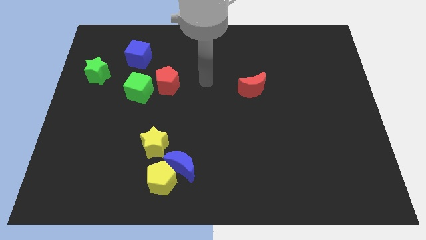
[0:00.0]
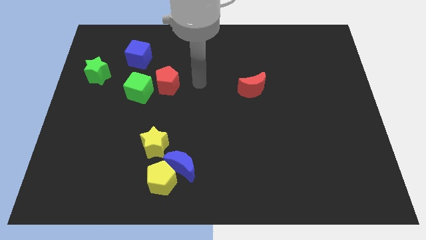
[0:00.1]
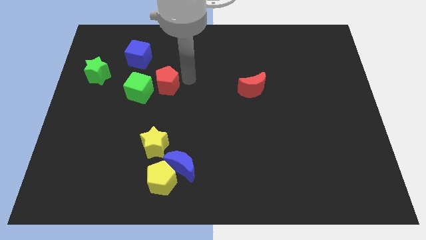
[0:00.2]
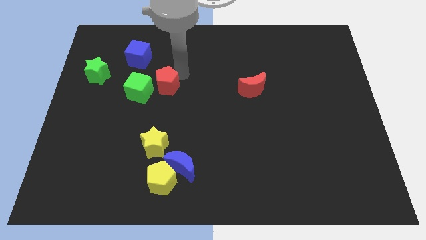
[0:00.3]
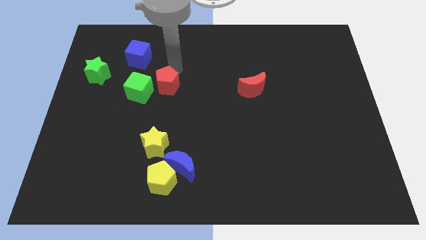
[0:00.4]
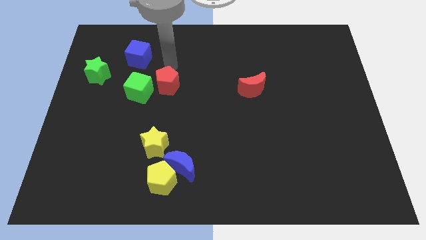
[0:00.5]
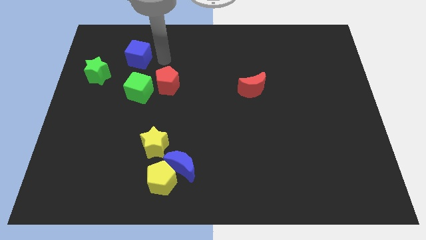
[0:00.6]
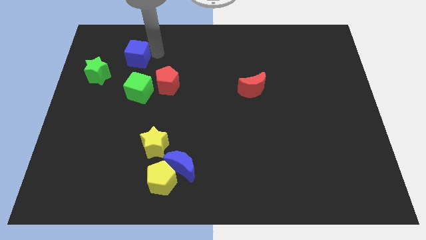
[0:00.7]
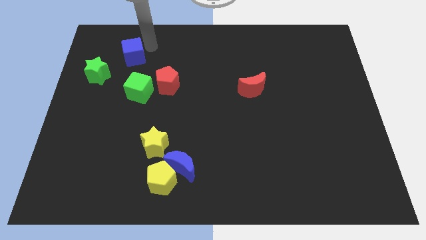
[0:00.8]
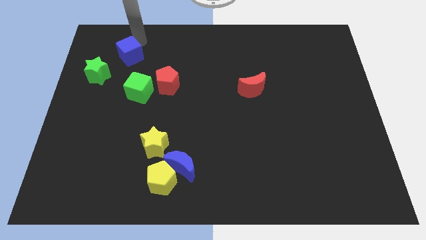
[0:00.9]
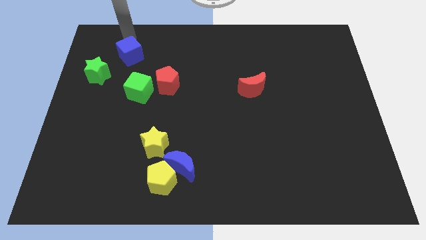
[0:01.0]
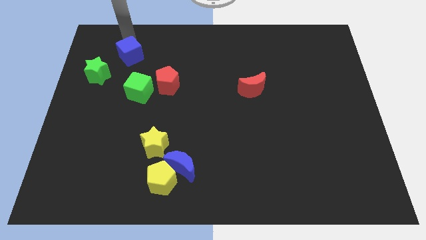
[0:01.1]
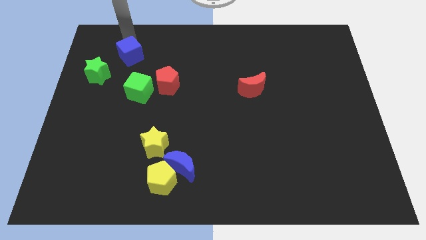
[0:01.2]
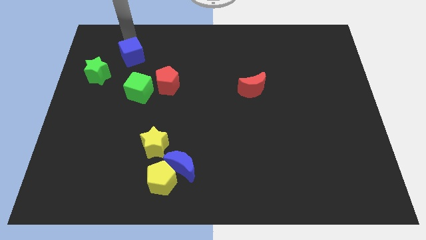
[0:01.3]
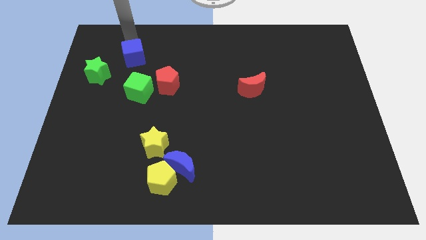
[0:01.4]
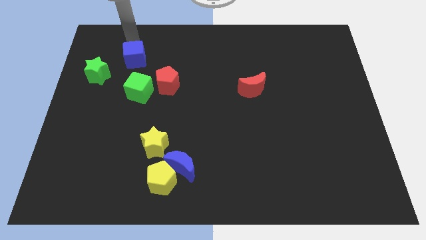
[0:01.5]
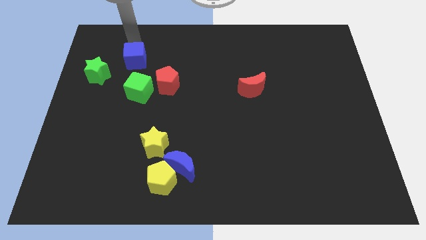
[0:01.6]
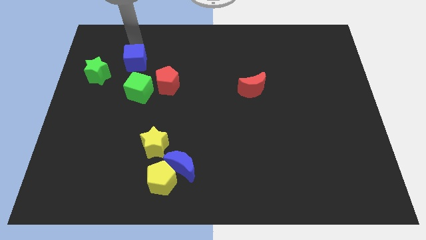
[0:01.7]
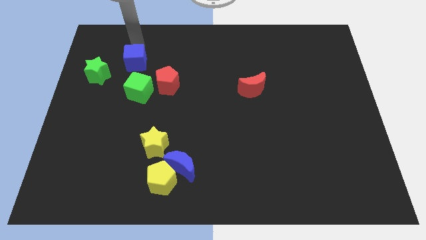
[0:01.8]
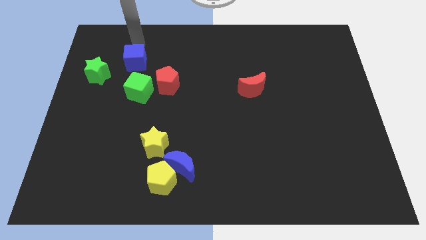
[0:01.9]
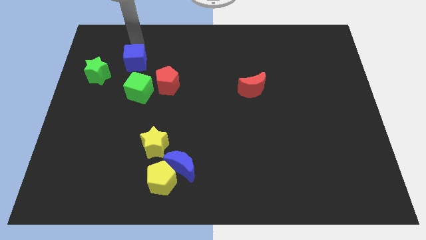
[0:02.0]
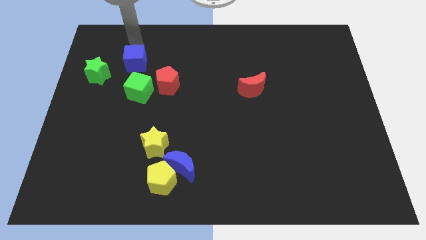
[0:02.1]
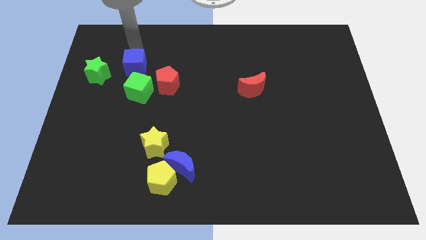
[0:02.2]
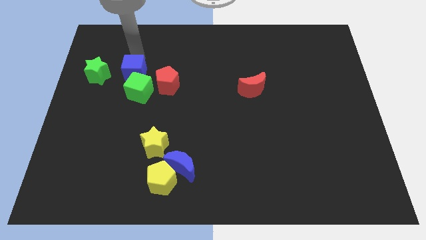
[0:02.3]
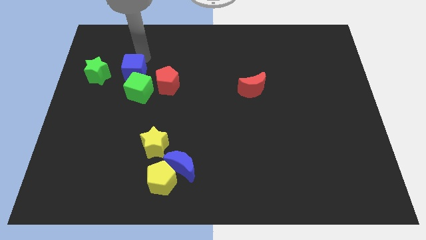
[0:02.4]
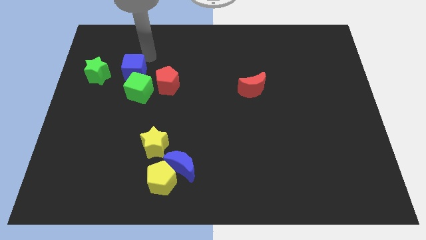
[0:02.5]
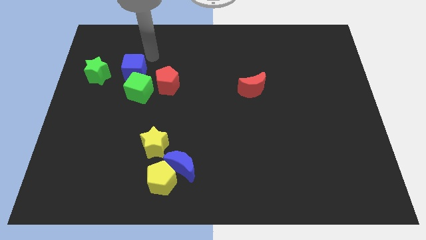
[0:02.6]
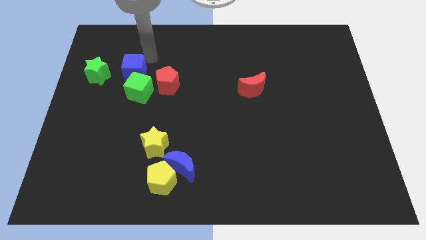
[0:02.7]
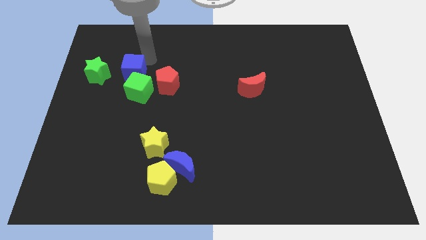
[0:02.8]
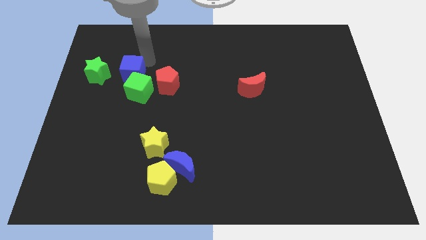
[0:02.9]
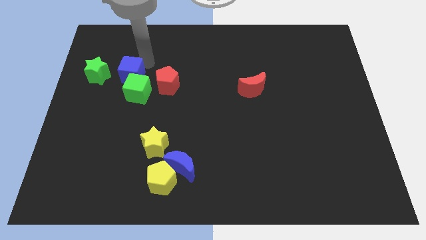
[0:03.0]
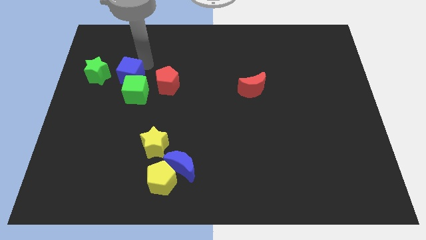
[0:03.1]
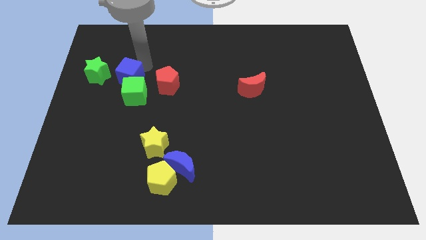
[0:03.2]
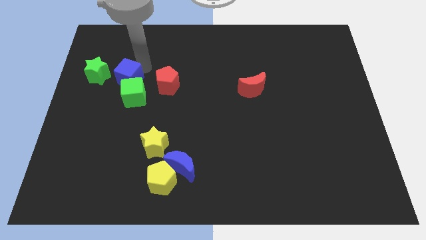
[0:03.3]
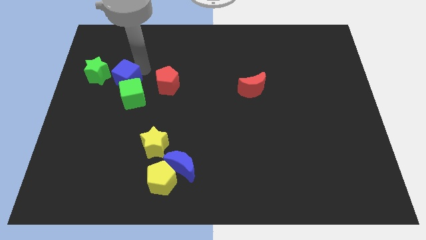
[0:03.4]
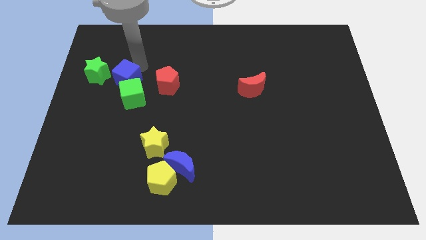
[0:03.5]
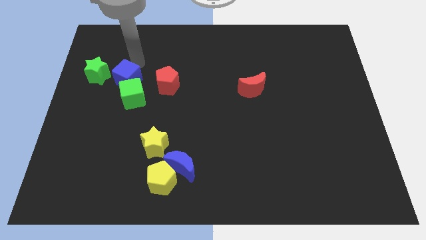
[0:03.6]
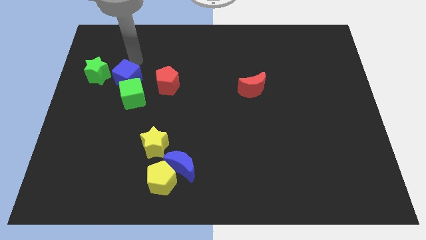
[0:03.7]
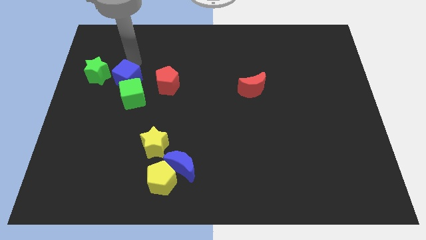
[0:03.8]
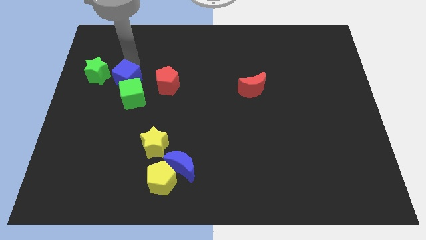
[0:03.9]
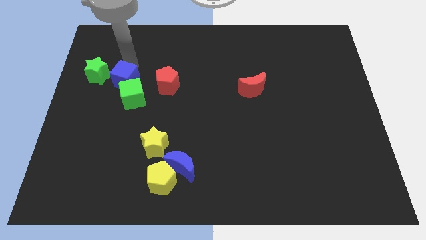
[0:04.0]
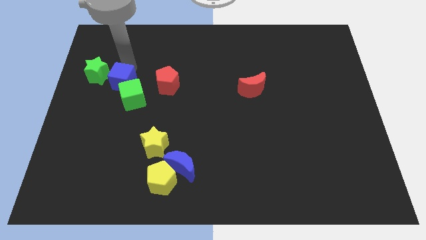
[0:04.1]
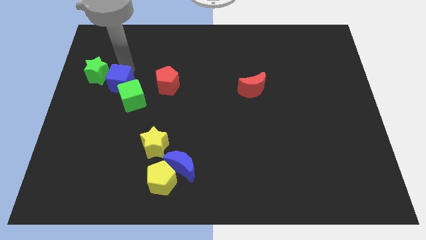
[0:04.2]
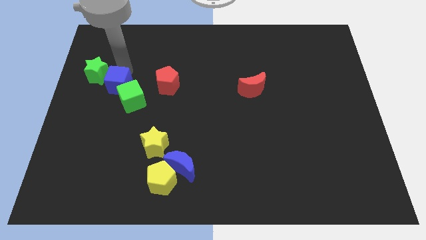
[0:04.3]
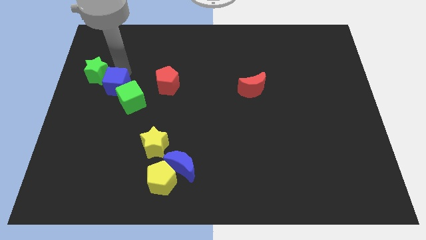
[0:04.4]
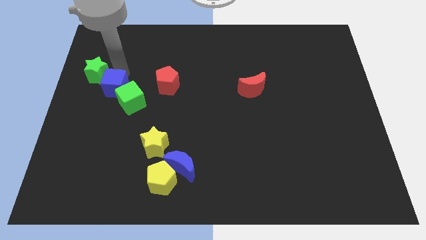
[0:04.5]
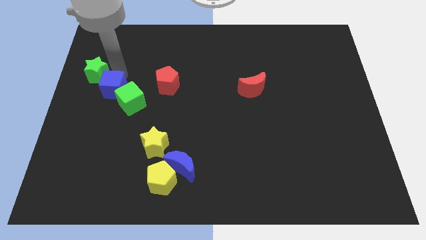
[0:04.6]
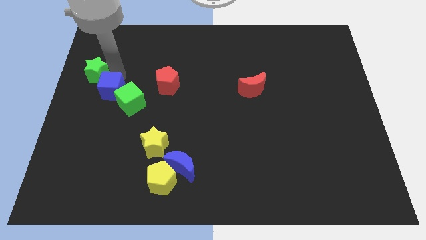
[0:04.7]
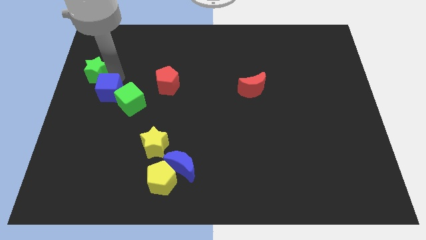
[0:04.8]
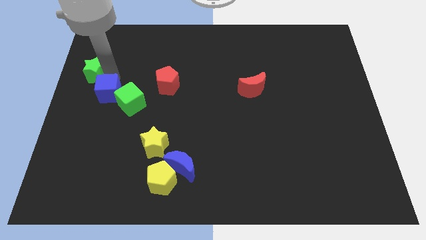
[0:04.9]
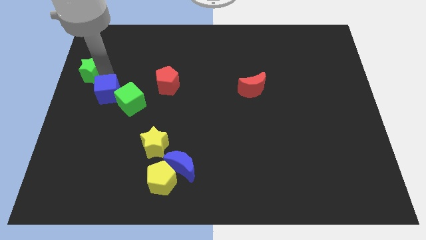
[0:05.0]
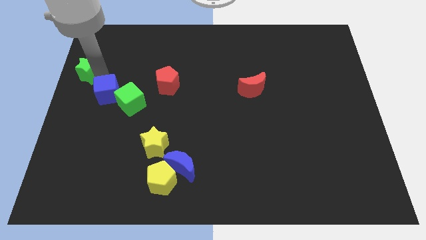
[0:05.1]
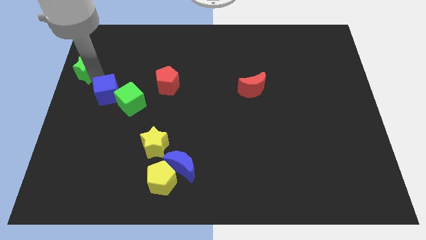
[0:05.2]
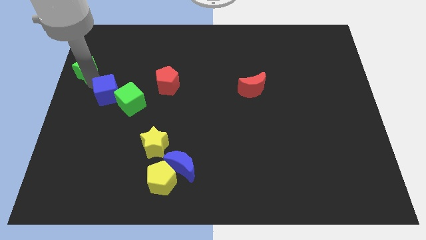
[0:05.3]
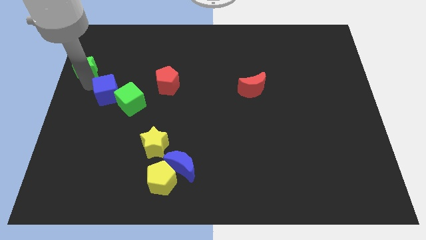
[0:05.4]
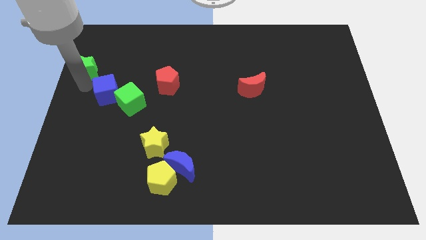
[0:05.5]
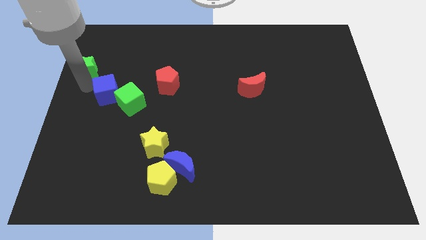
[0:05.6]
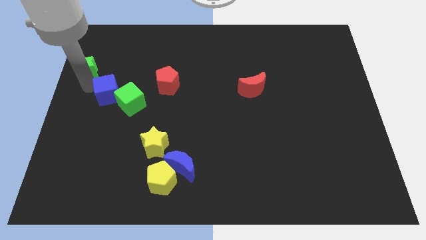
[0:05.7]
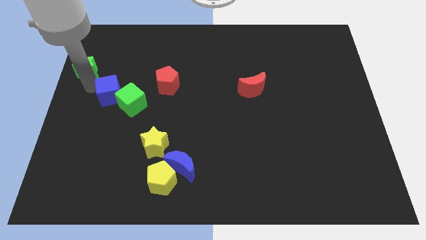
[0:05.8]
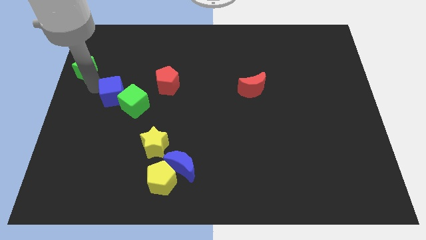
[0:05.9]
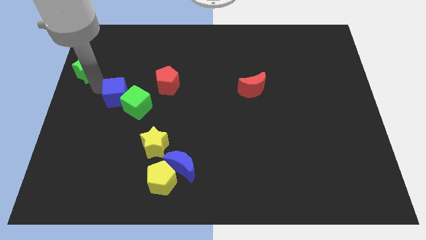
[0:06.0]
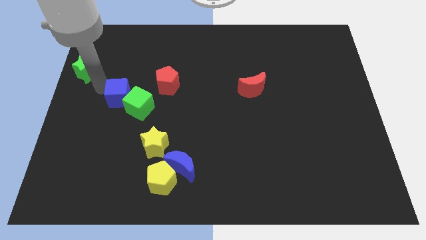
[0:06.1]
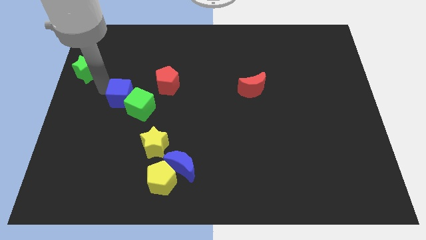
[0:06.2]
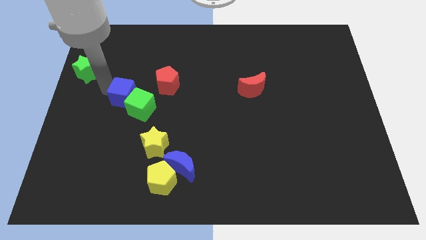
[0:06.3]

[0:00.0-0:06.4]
move the blue cube to the bottom left of the red pentagon

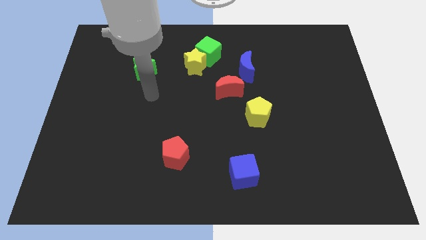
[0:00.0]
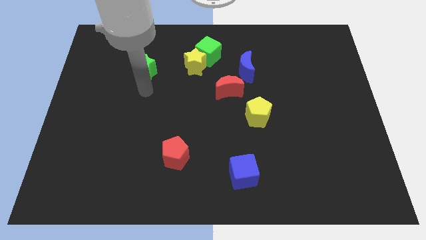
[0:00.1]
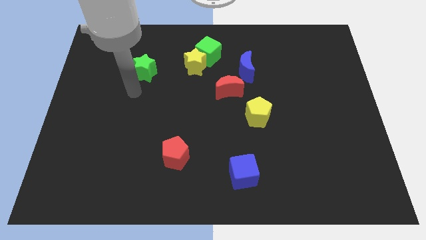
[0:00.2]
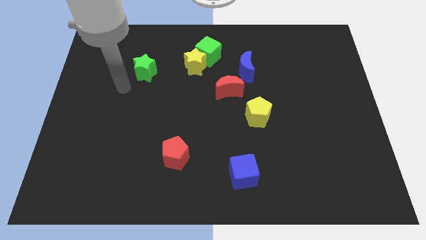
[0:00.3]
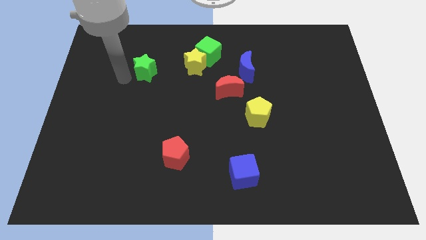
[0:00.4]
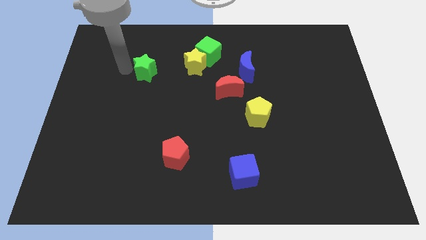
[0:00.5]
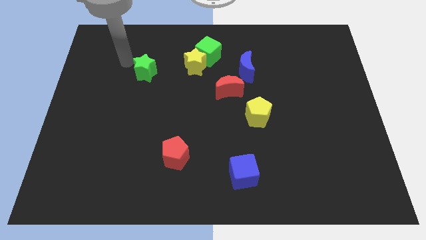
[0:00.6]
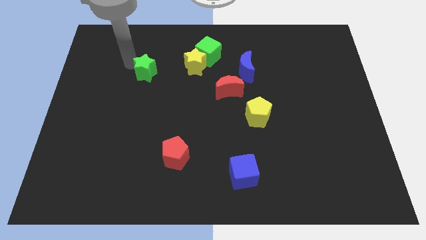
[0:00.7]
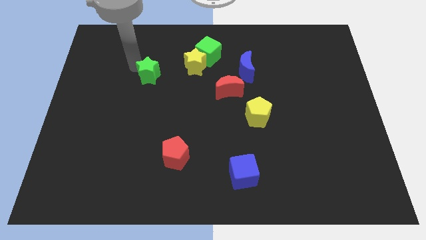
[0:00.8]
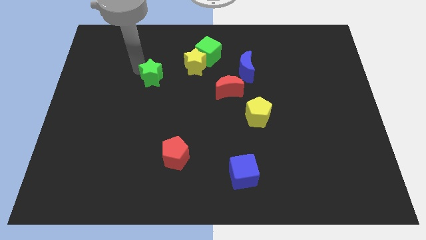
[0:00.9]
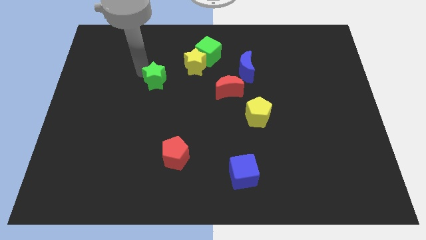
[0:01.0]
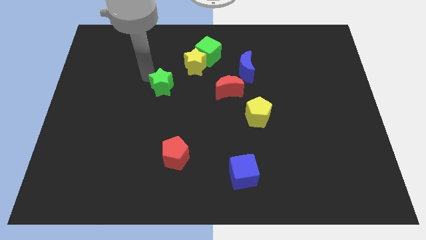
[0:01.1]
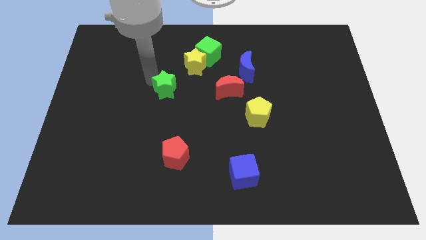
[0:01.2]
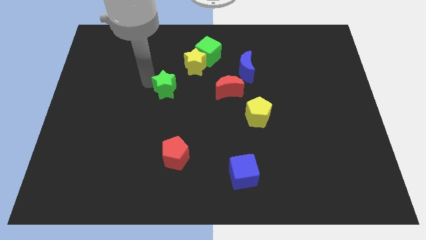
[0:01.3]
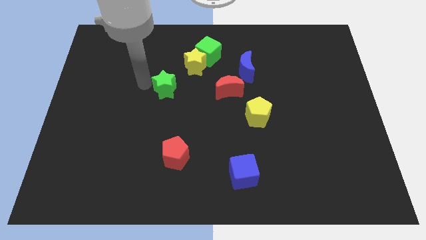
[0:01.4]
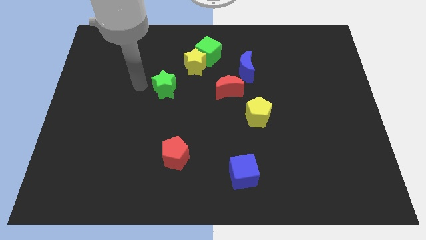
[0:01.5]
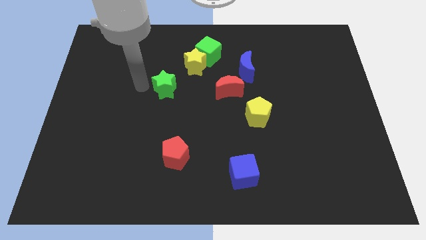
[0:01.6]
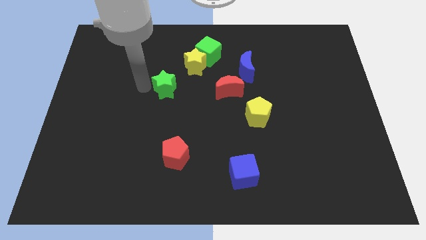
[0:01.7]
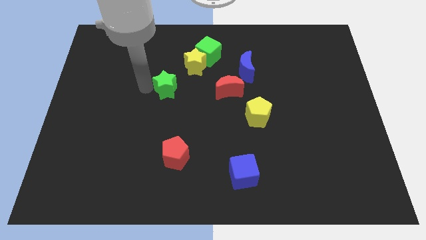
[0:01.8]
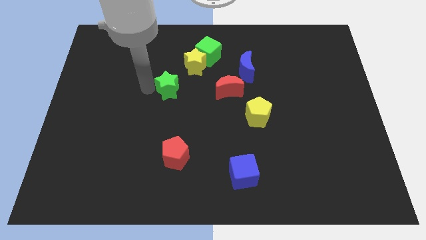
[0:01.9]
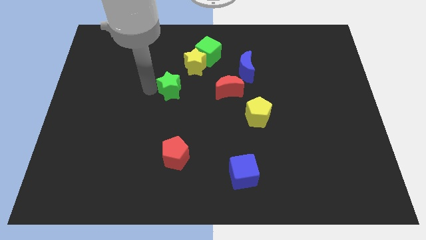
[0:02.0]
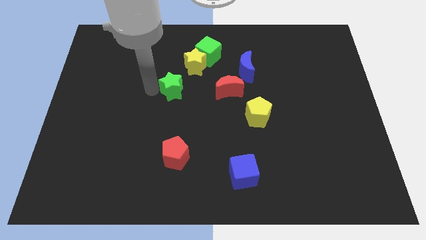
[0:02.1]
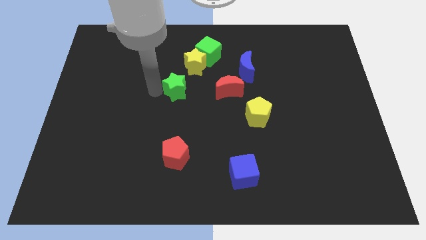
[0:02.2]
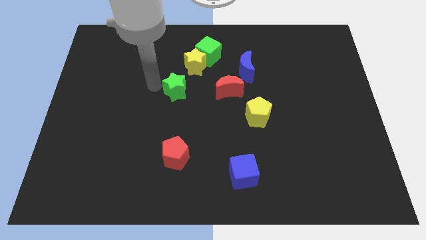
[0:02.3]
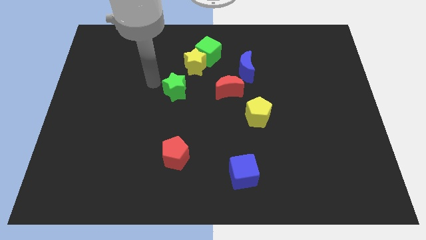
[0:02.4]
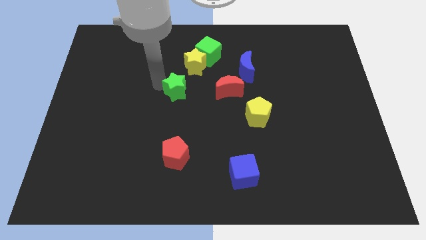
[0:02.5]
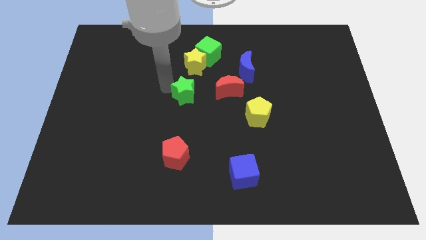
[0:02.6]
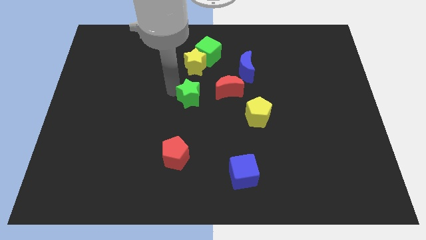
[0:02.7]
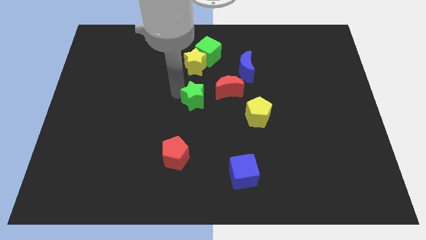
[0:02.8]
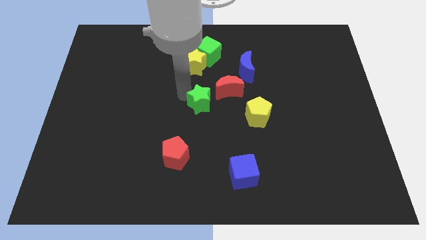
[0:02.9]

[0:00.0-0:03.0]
move the green star to the left of the yellow pentagon
